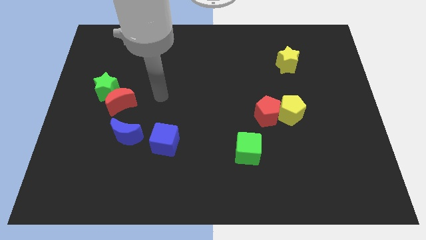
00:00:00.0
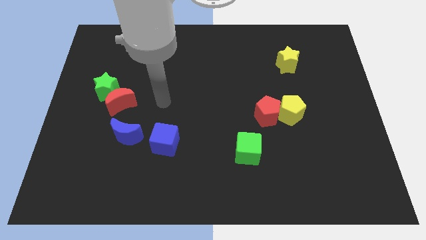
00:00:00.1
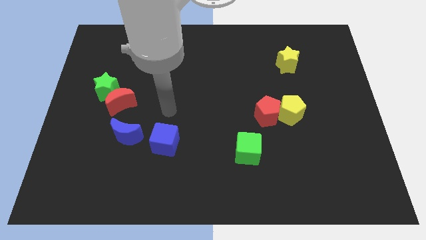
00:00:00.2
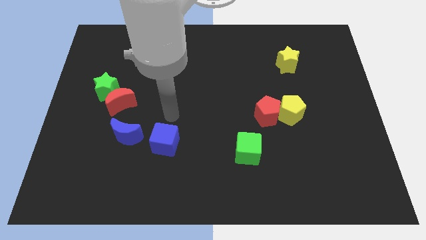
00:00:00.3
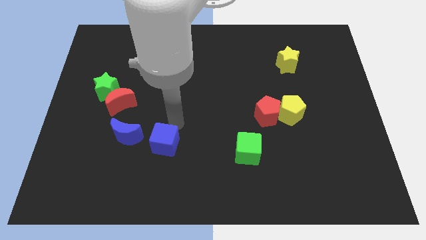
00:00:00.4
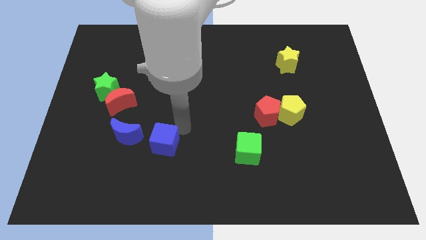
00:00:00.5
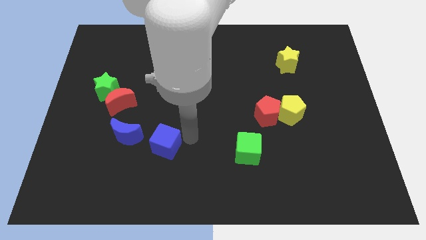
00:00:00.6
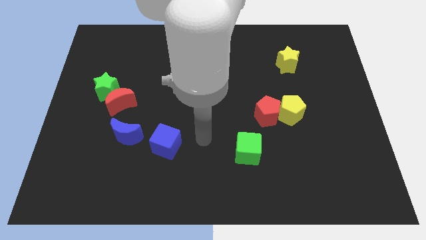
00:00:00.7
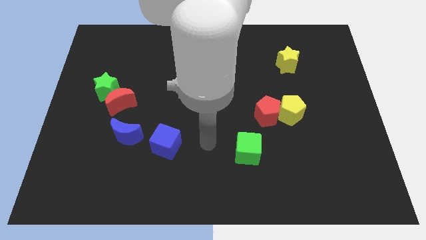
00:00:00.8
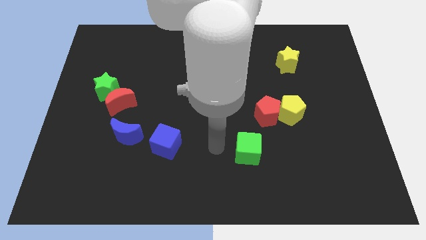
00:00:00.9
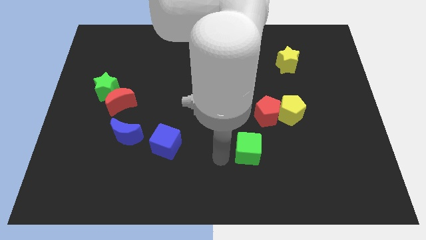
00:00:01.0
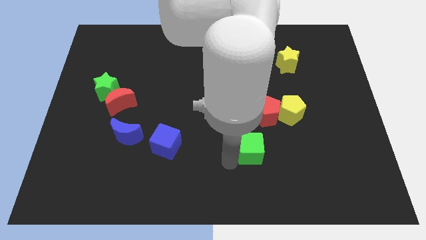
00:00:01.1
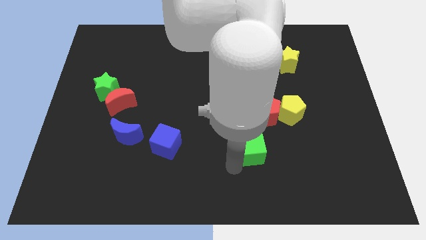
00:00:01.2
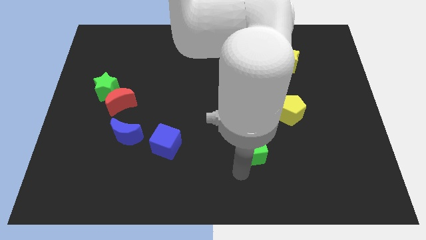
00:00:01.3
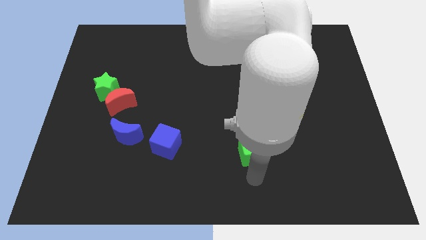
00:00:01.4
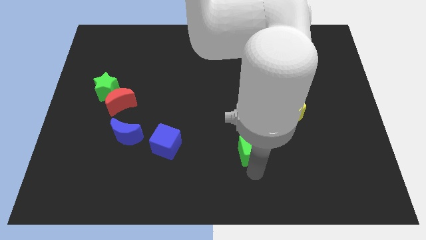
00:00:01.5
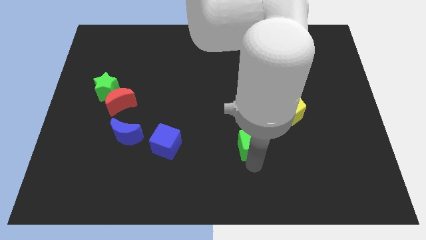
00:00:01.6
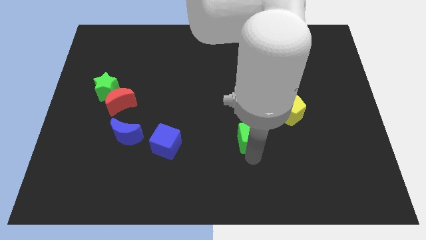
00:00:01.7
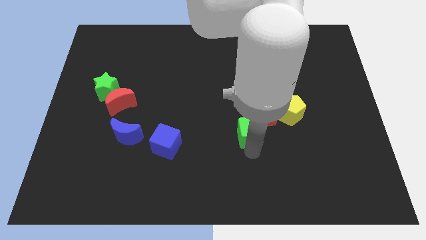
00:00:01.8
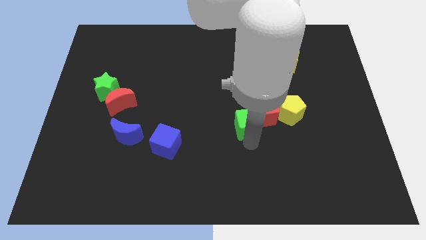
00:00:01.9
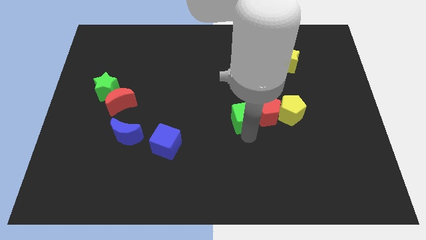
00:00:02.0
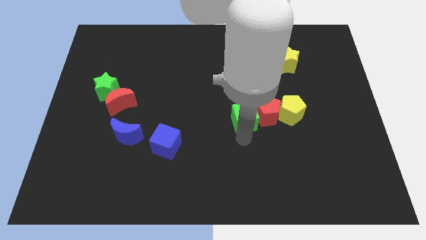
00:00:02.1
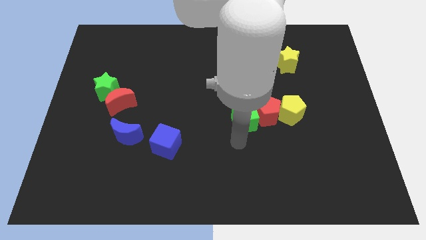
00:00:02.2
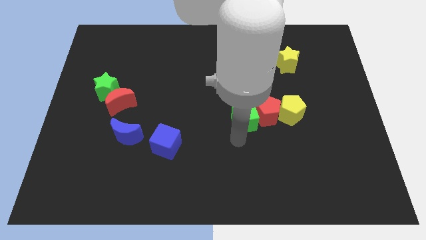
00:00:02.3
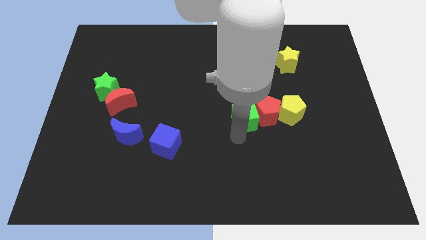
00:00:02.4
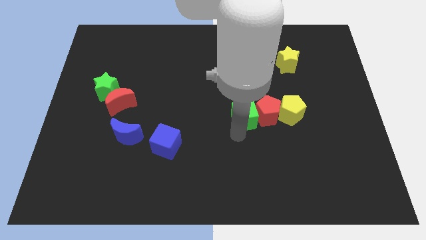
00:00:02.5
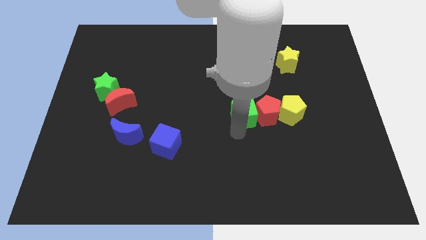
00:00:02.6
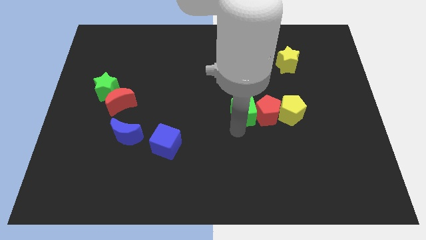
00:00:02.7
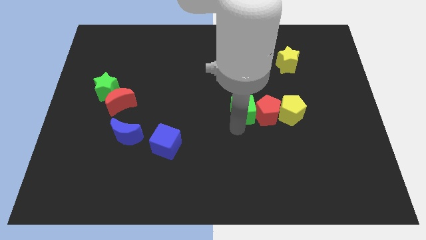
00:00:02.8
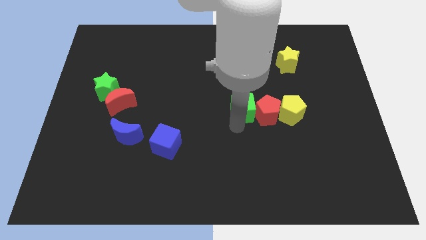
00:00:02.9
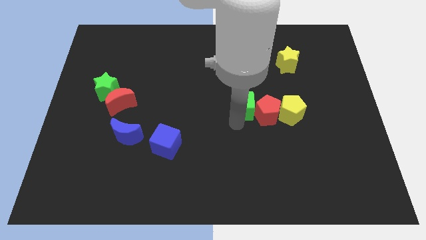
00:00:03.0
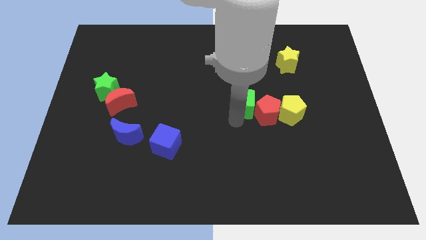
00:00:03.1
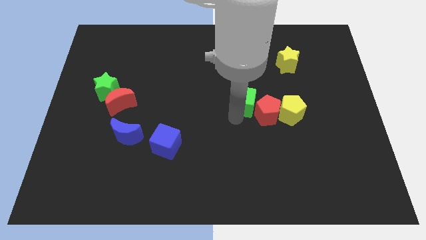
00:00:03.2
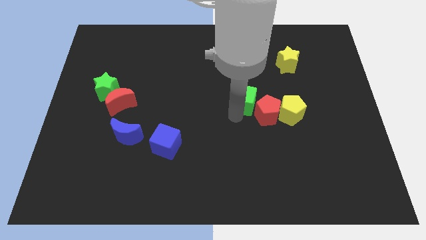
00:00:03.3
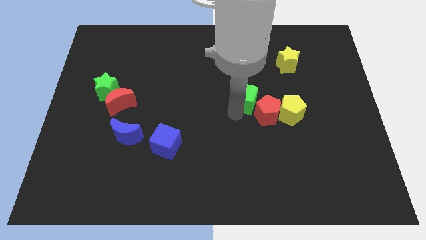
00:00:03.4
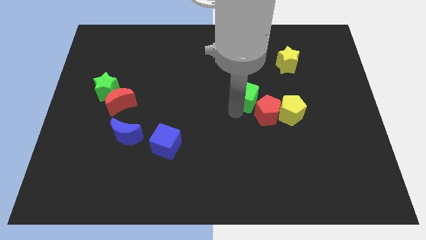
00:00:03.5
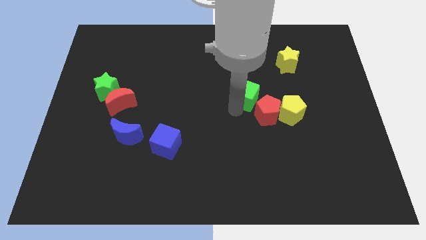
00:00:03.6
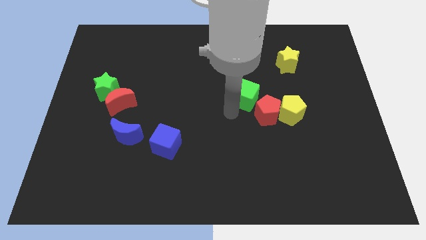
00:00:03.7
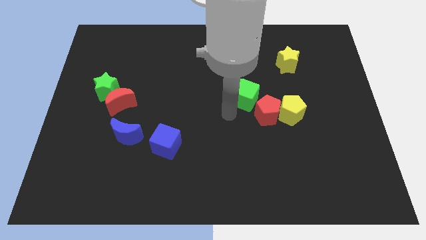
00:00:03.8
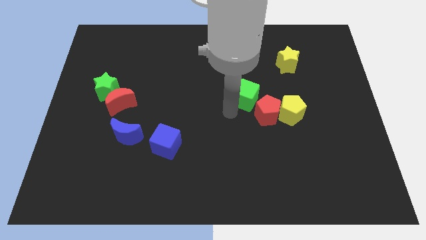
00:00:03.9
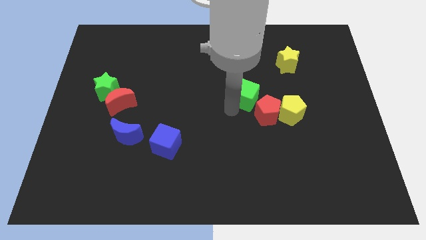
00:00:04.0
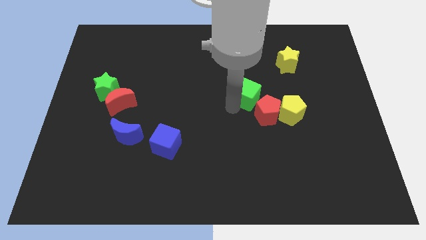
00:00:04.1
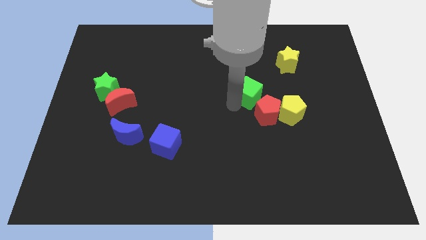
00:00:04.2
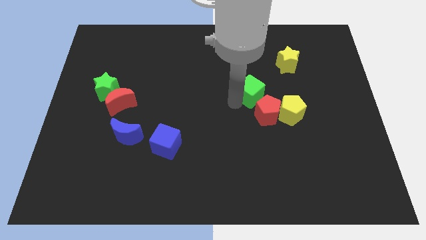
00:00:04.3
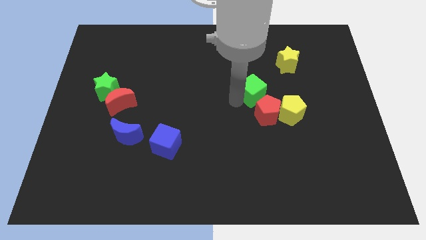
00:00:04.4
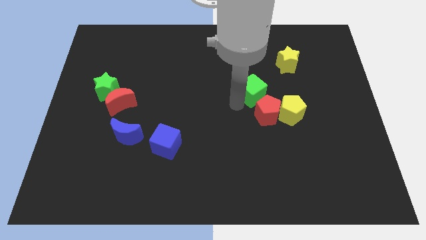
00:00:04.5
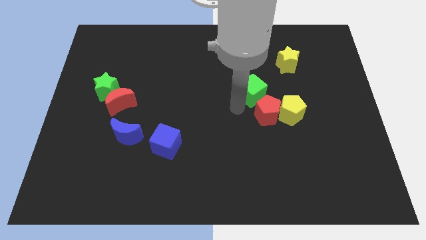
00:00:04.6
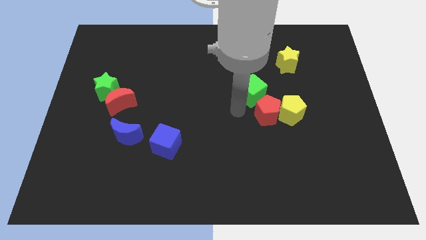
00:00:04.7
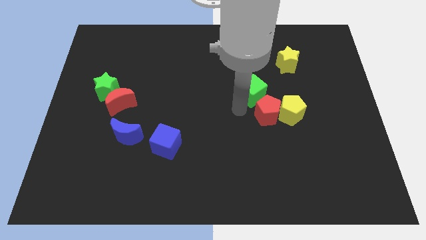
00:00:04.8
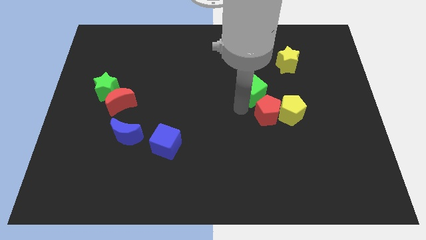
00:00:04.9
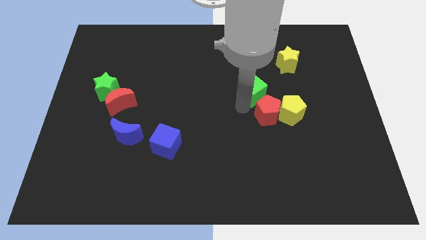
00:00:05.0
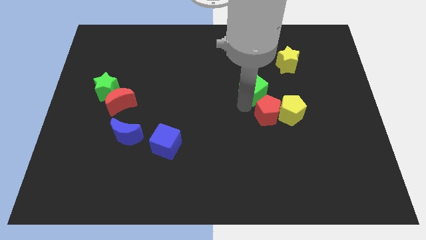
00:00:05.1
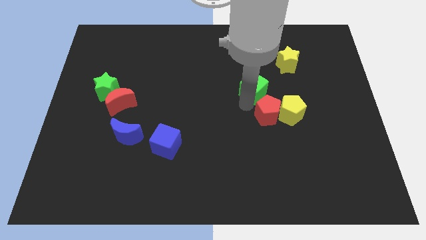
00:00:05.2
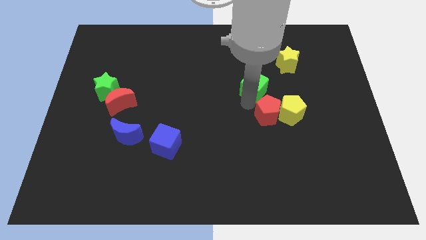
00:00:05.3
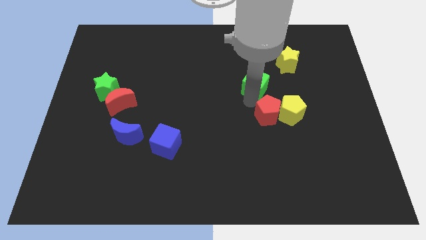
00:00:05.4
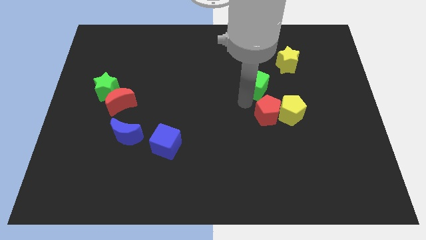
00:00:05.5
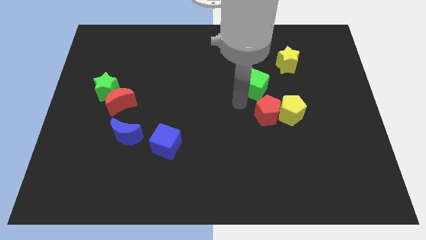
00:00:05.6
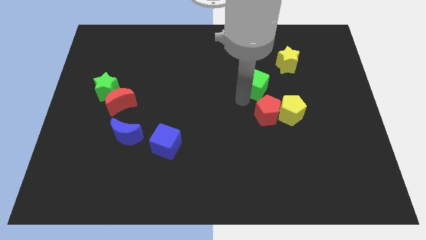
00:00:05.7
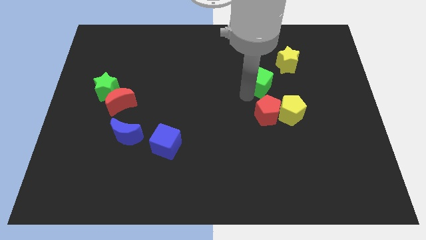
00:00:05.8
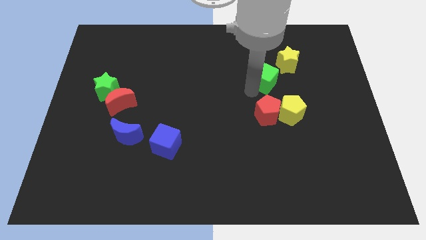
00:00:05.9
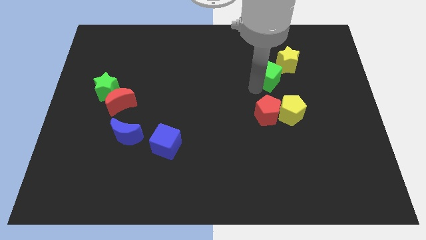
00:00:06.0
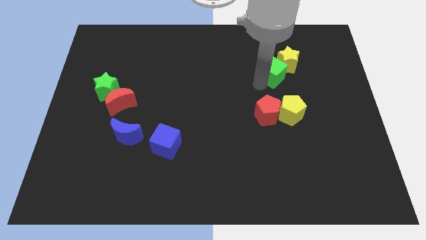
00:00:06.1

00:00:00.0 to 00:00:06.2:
push the green cube towards the yellow star
